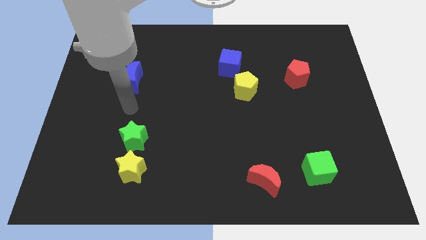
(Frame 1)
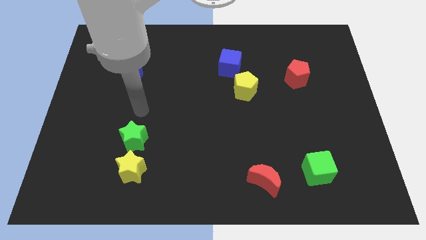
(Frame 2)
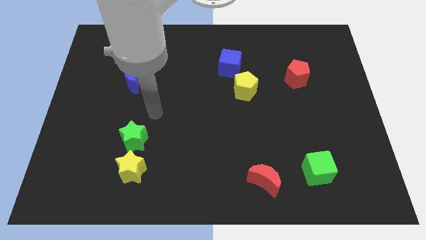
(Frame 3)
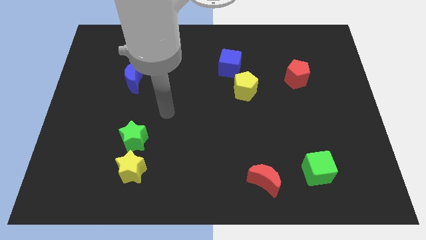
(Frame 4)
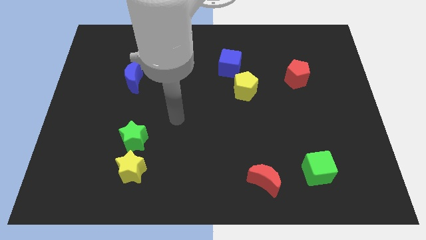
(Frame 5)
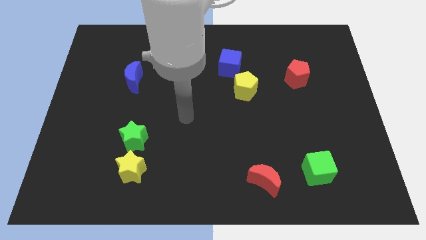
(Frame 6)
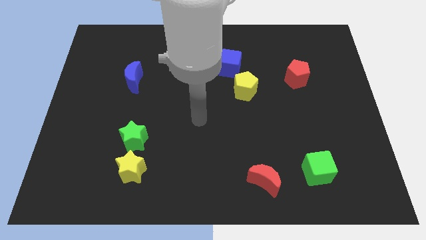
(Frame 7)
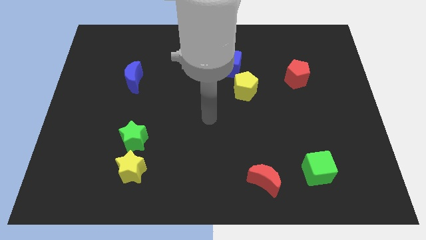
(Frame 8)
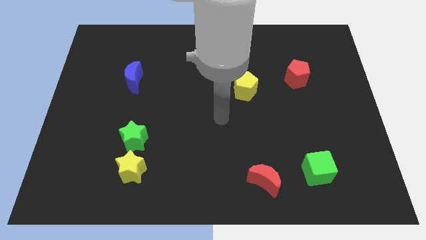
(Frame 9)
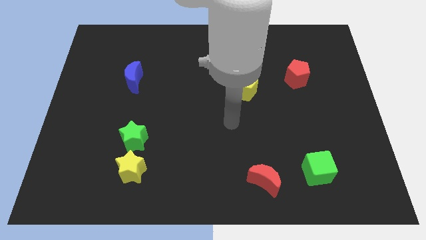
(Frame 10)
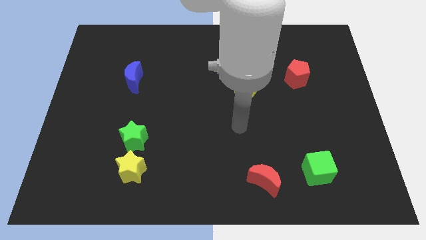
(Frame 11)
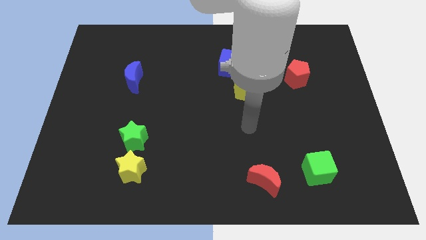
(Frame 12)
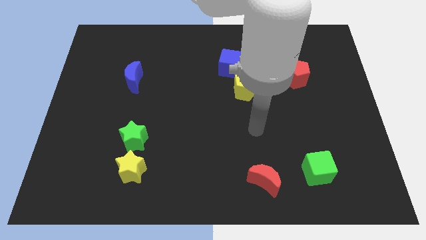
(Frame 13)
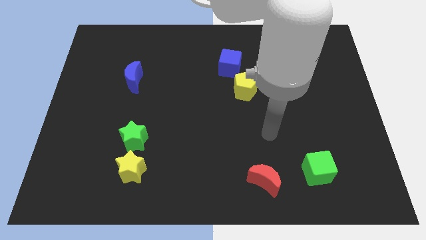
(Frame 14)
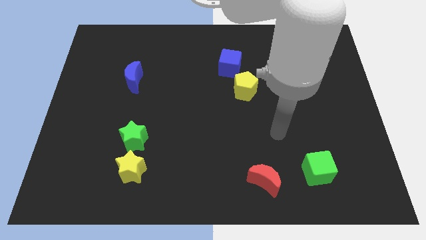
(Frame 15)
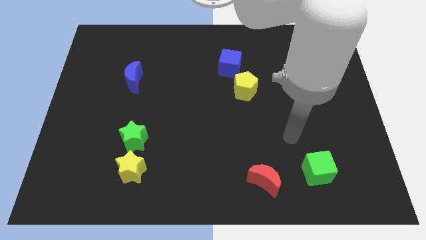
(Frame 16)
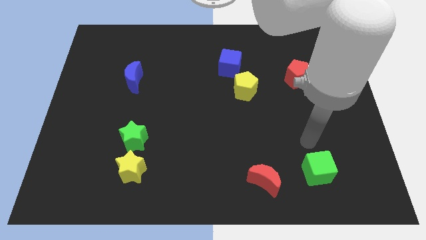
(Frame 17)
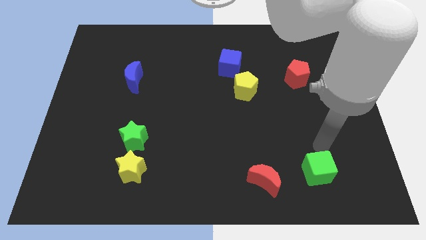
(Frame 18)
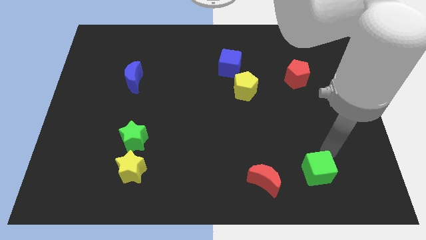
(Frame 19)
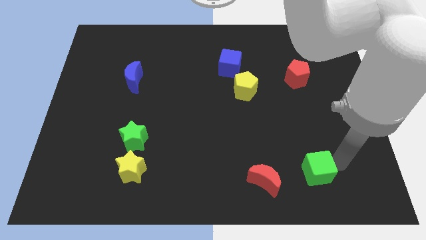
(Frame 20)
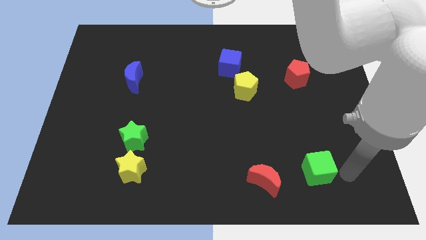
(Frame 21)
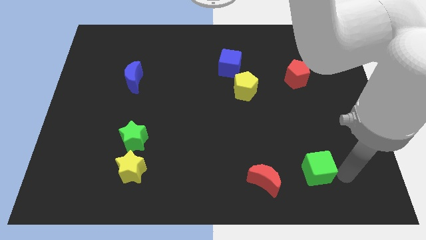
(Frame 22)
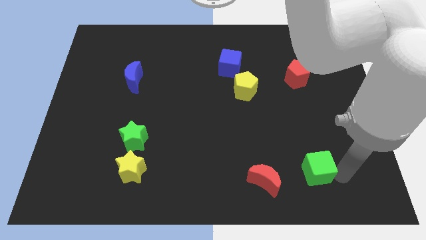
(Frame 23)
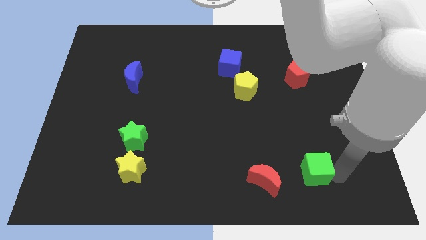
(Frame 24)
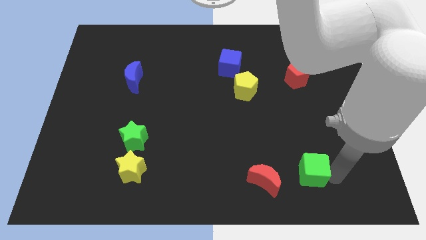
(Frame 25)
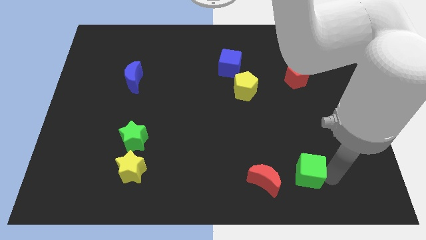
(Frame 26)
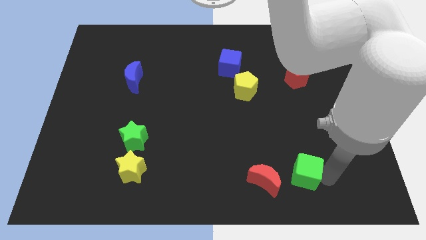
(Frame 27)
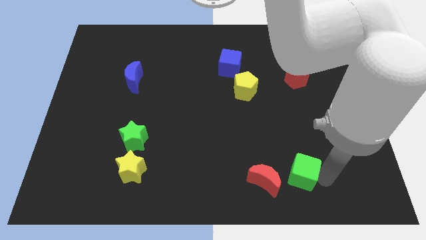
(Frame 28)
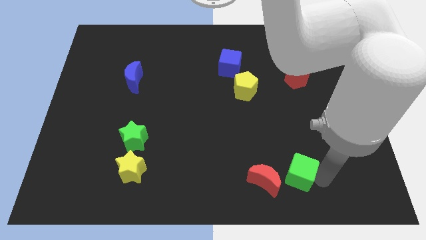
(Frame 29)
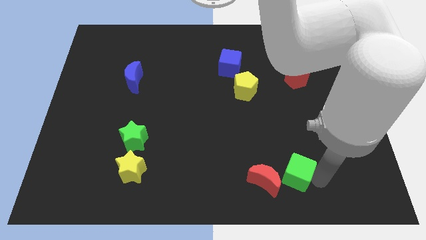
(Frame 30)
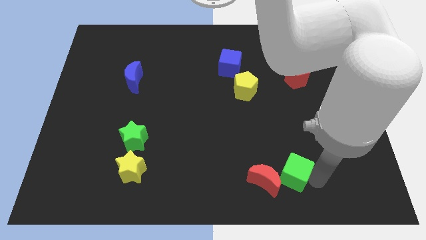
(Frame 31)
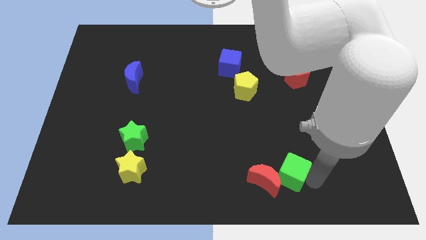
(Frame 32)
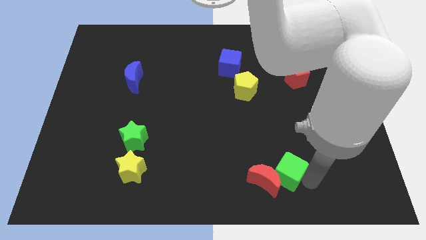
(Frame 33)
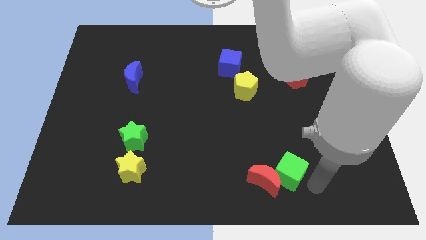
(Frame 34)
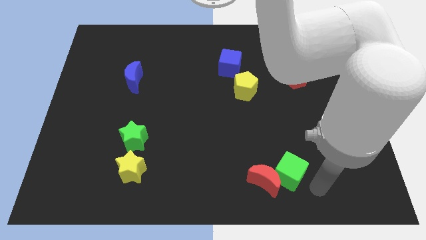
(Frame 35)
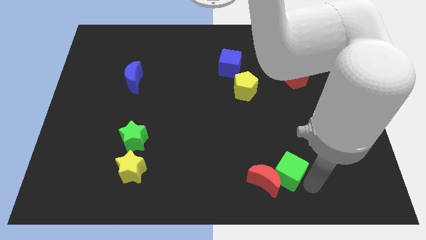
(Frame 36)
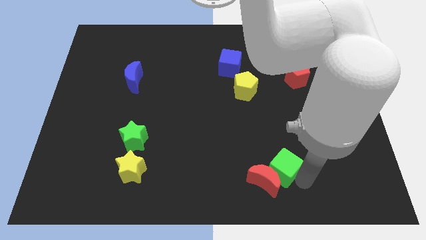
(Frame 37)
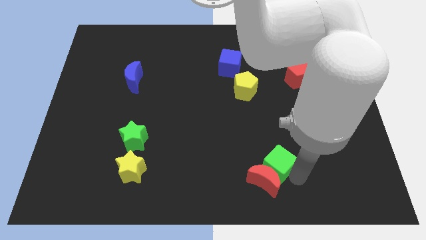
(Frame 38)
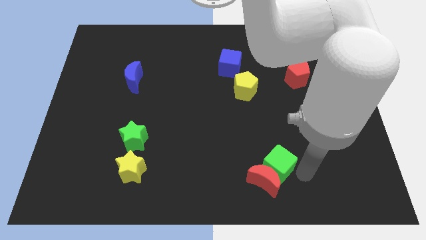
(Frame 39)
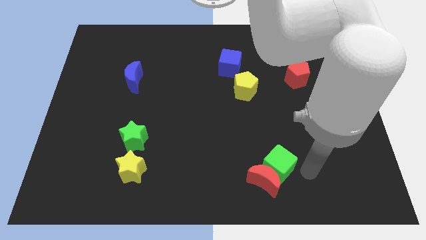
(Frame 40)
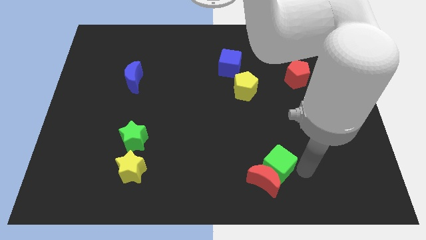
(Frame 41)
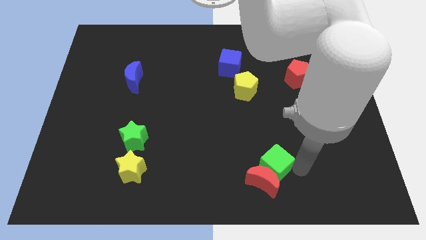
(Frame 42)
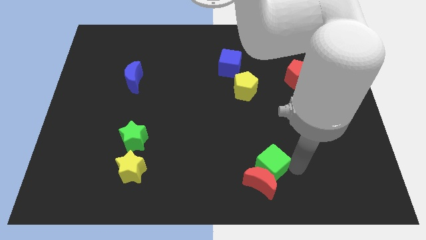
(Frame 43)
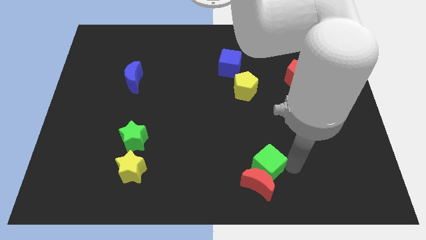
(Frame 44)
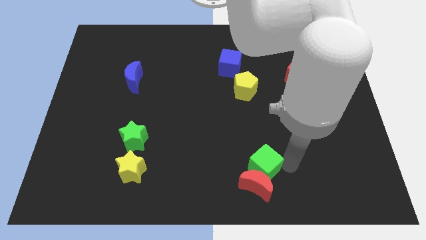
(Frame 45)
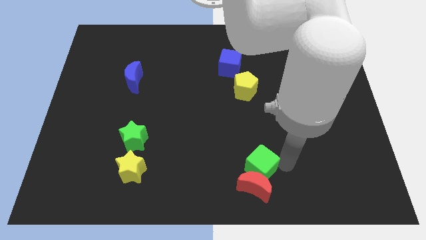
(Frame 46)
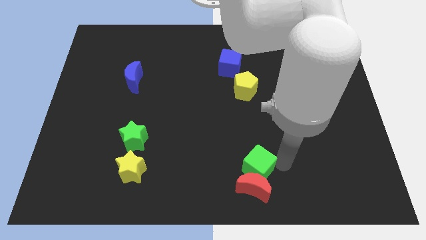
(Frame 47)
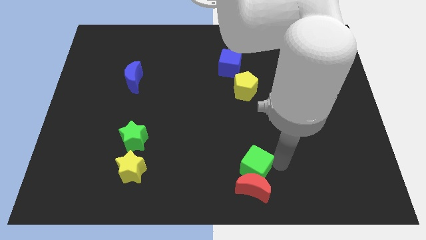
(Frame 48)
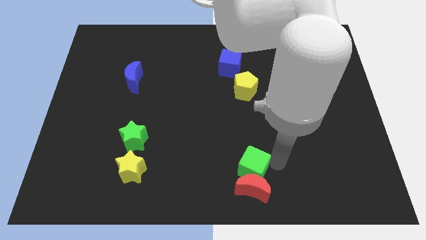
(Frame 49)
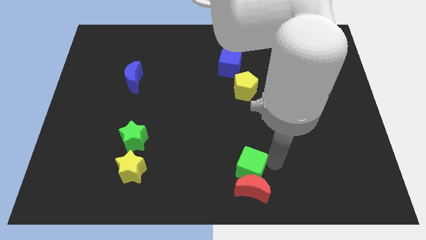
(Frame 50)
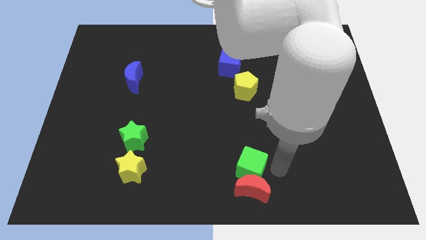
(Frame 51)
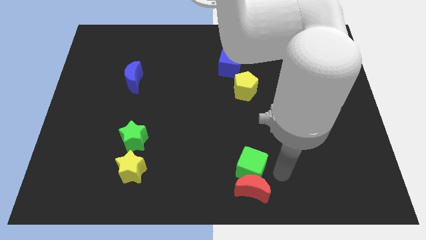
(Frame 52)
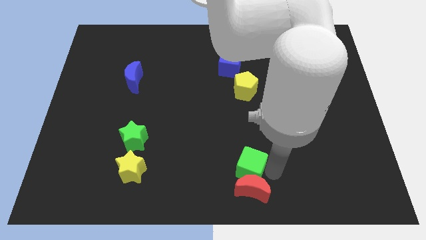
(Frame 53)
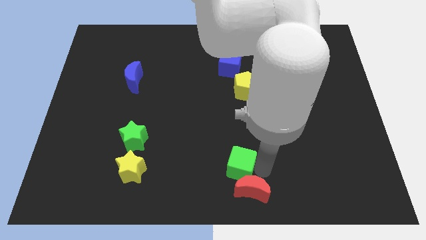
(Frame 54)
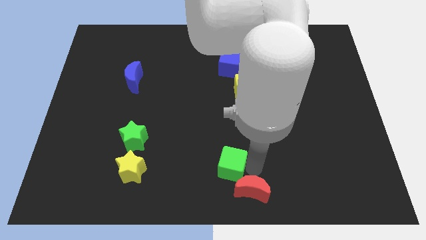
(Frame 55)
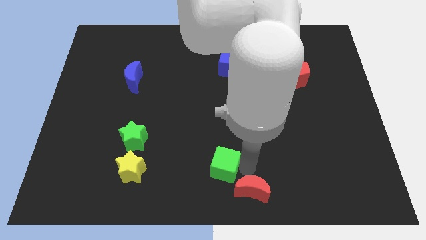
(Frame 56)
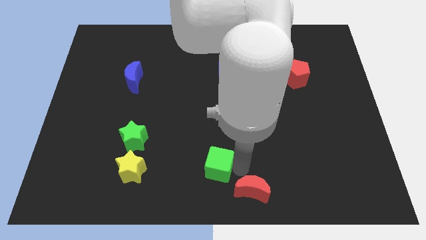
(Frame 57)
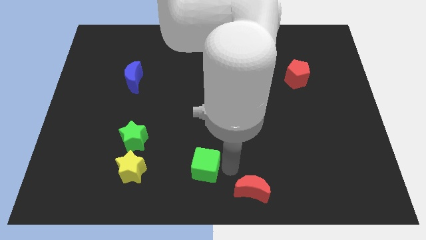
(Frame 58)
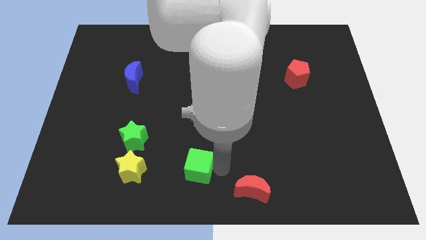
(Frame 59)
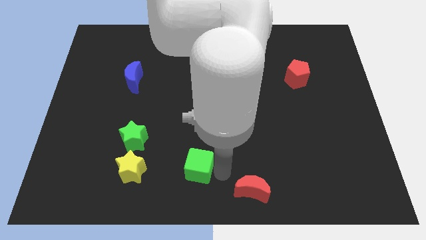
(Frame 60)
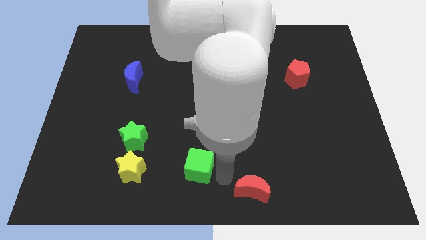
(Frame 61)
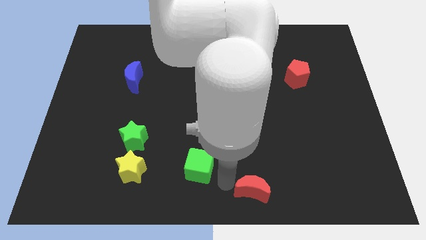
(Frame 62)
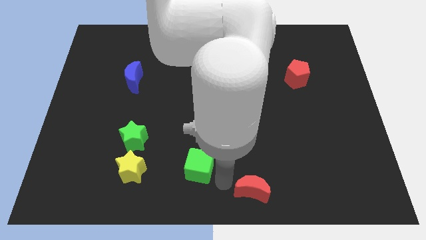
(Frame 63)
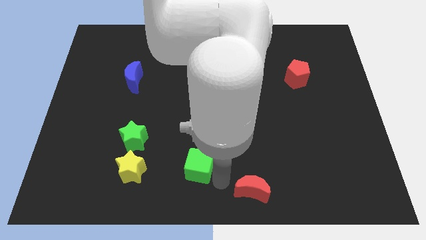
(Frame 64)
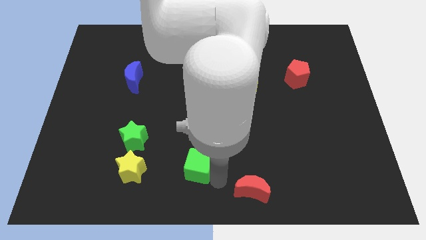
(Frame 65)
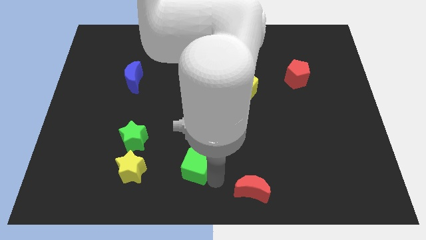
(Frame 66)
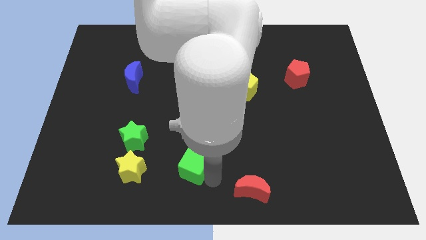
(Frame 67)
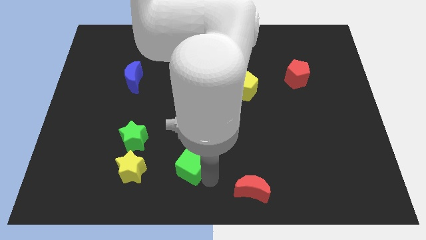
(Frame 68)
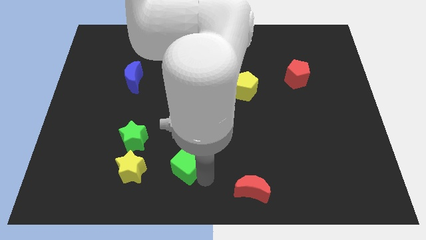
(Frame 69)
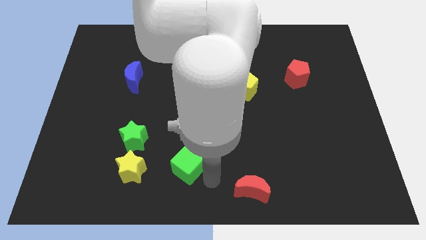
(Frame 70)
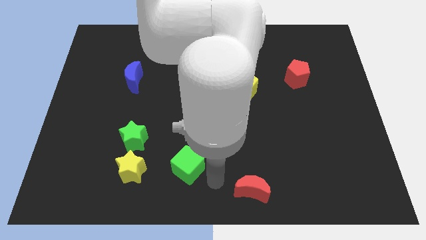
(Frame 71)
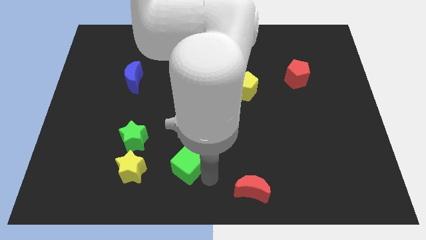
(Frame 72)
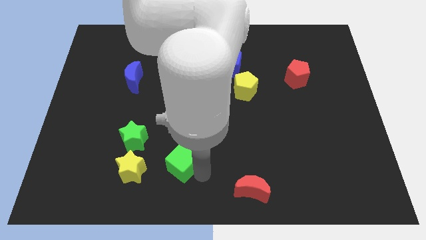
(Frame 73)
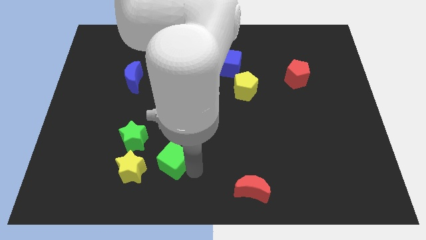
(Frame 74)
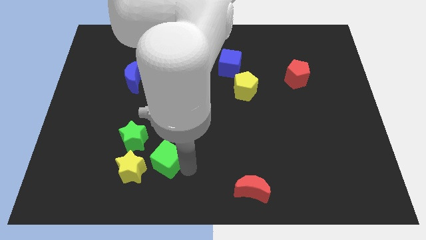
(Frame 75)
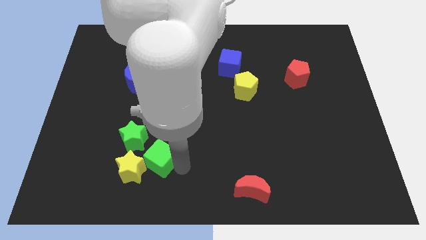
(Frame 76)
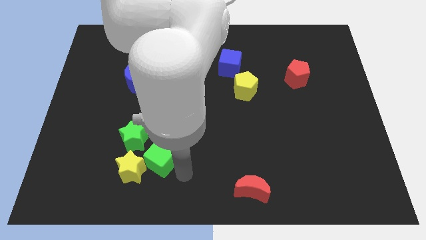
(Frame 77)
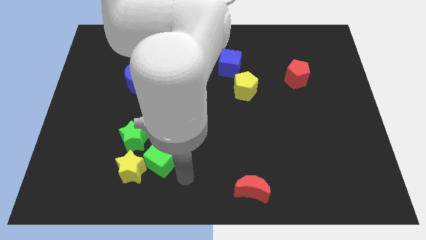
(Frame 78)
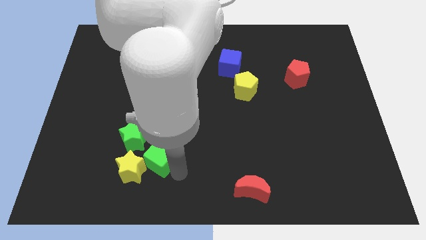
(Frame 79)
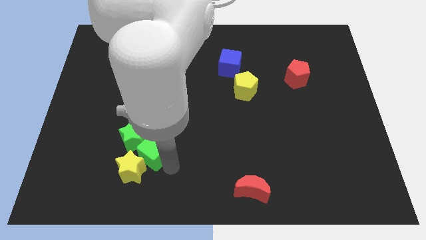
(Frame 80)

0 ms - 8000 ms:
slide the green cube close to the green star
